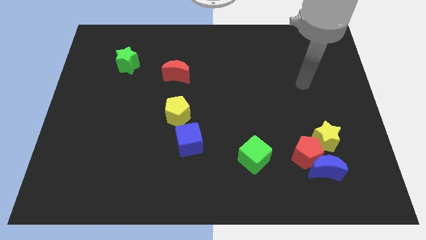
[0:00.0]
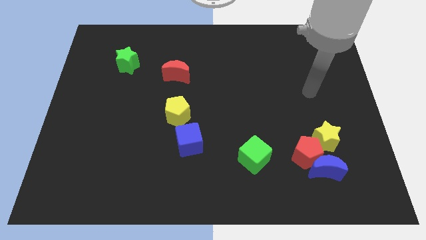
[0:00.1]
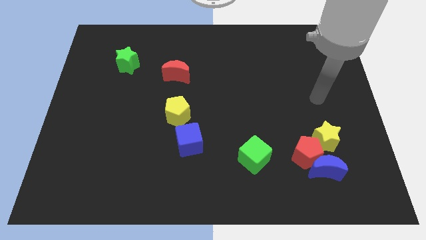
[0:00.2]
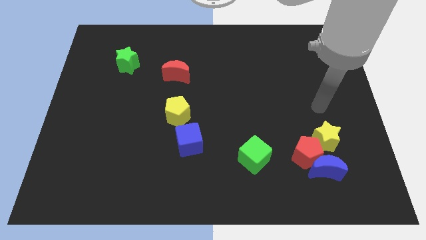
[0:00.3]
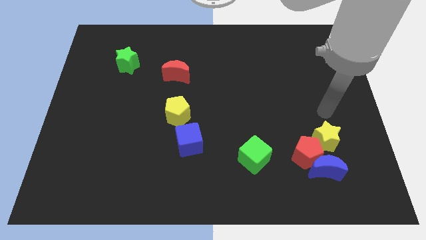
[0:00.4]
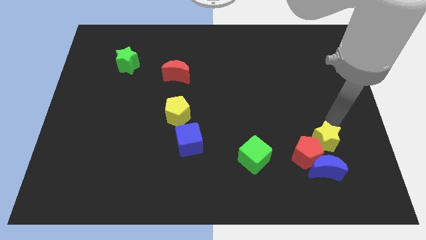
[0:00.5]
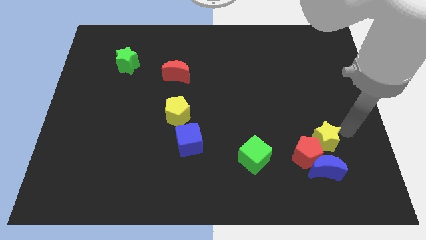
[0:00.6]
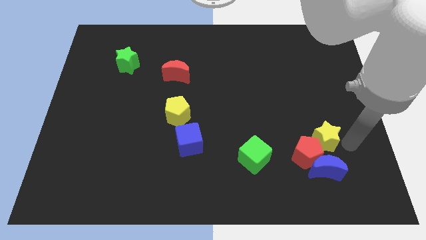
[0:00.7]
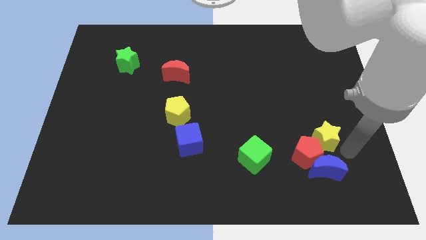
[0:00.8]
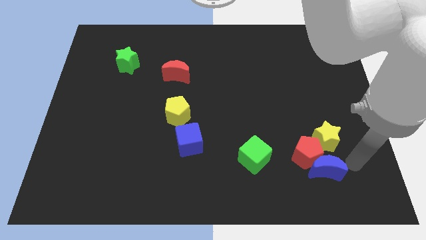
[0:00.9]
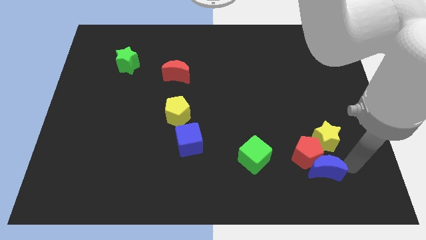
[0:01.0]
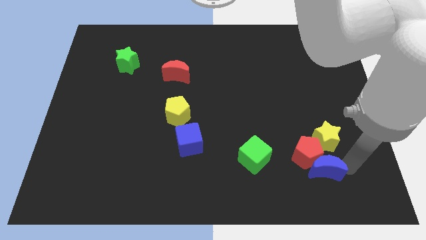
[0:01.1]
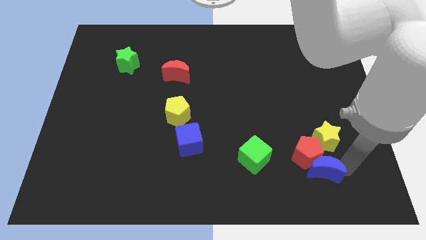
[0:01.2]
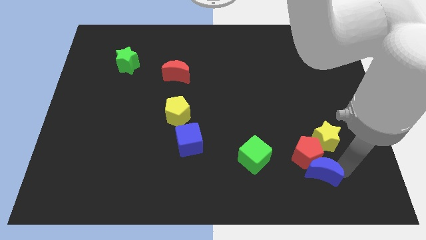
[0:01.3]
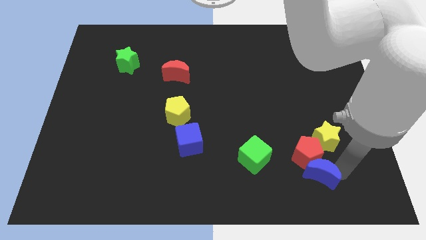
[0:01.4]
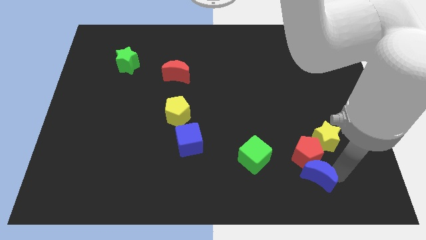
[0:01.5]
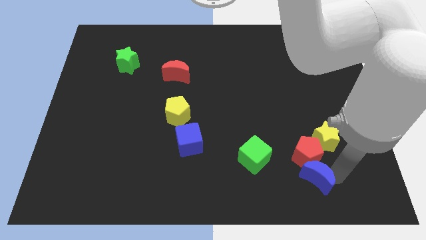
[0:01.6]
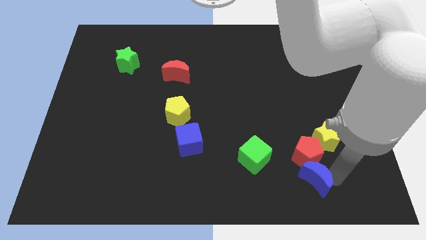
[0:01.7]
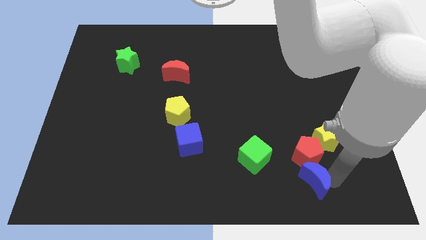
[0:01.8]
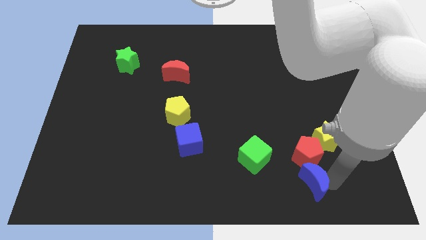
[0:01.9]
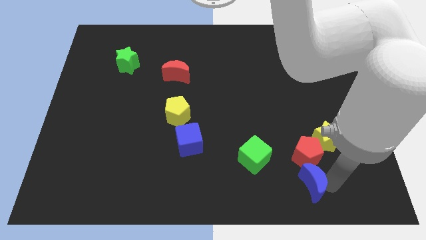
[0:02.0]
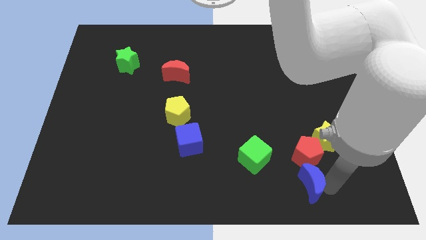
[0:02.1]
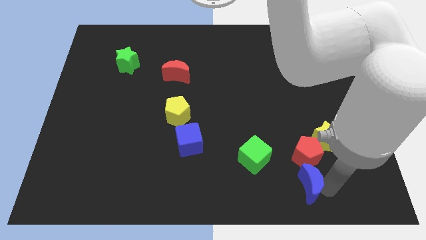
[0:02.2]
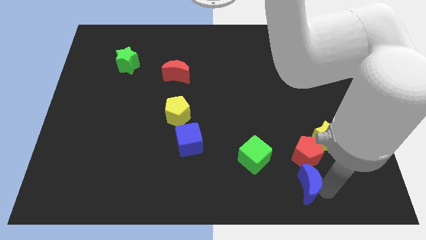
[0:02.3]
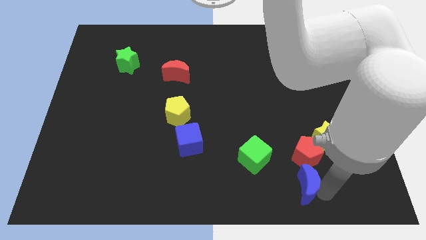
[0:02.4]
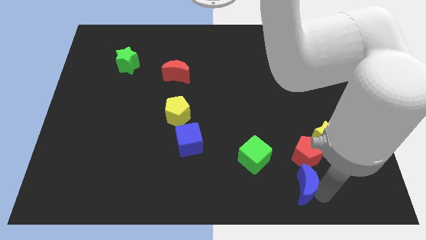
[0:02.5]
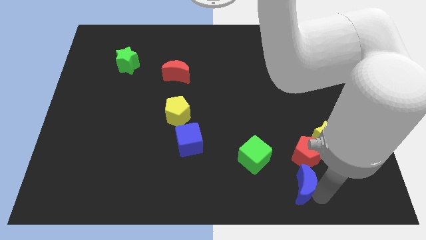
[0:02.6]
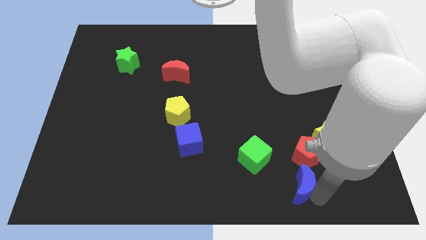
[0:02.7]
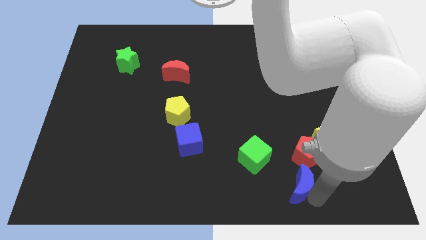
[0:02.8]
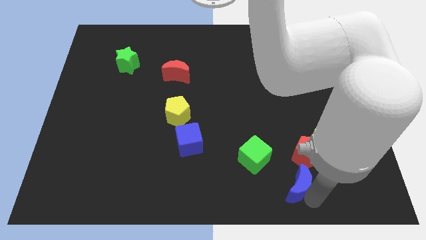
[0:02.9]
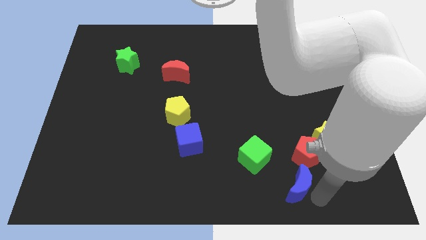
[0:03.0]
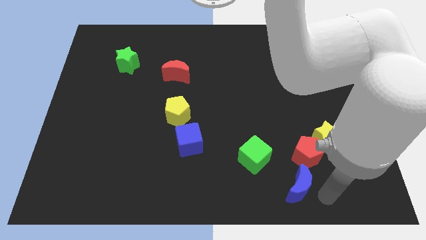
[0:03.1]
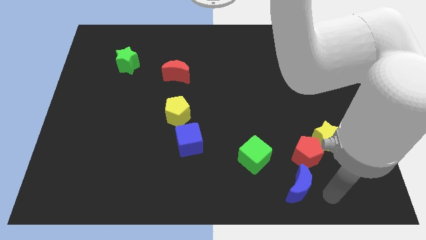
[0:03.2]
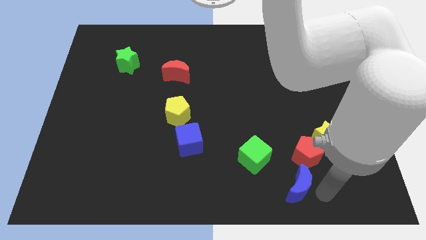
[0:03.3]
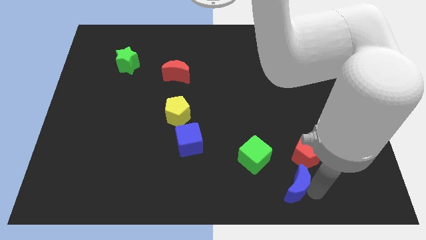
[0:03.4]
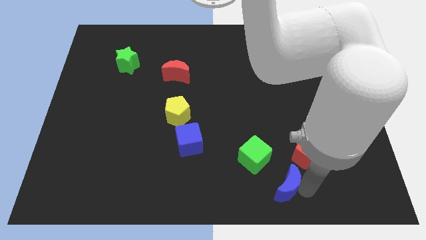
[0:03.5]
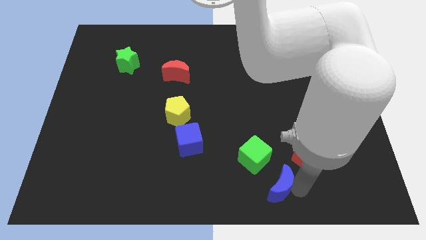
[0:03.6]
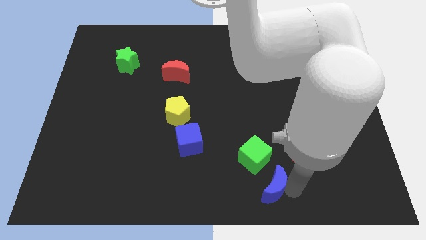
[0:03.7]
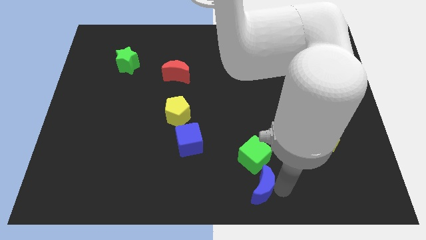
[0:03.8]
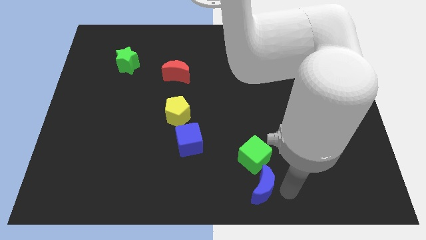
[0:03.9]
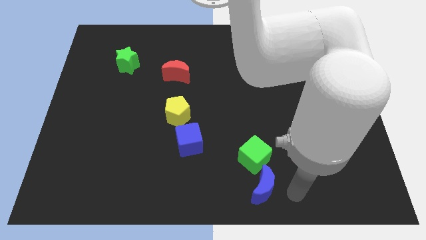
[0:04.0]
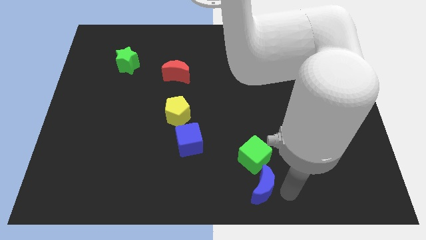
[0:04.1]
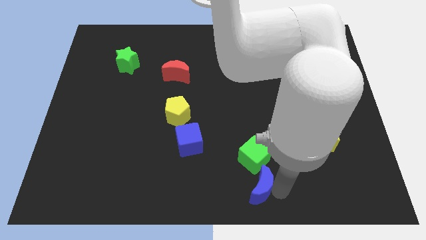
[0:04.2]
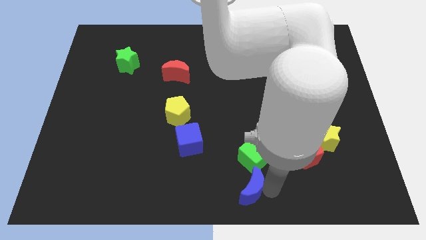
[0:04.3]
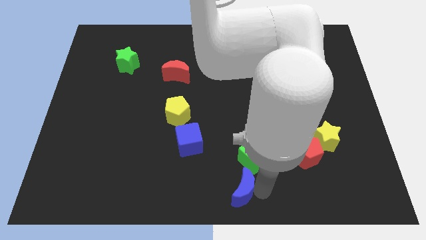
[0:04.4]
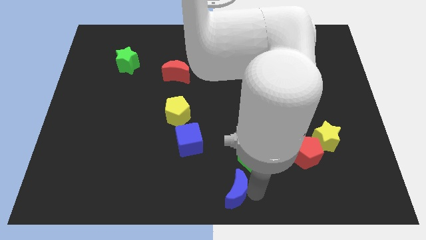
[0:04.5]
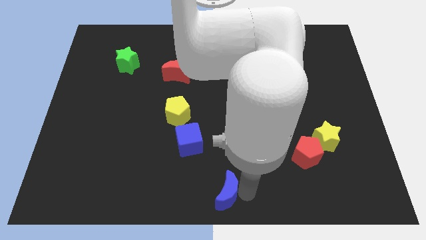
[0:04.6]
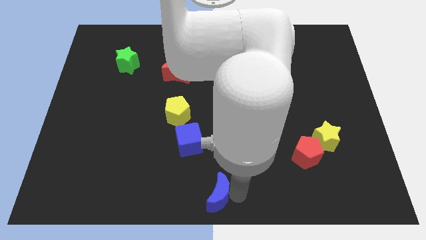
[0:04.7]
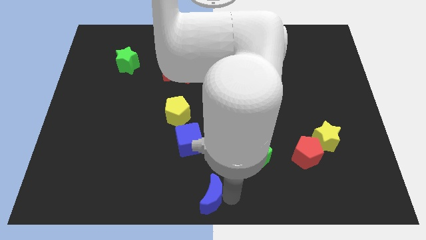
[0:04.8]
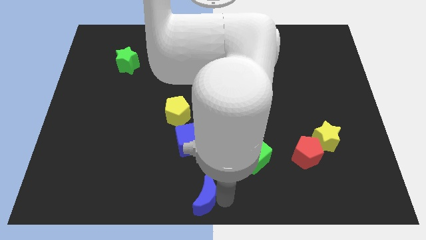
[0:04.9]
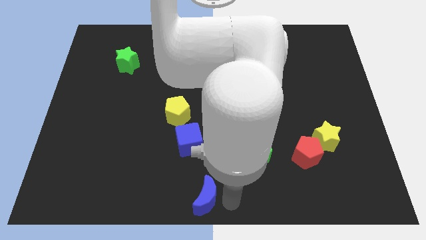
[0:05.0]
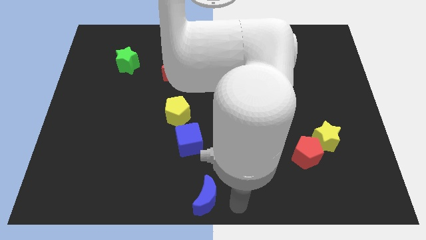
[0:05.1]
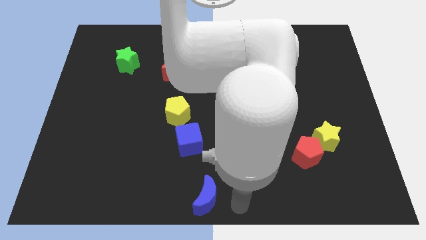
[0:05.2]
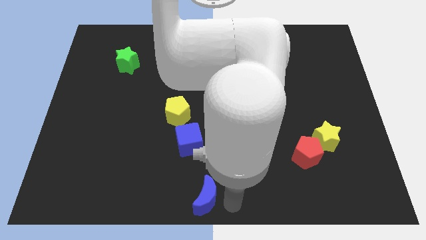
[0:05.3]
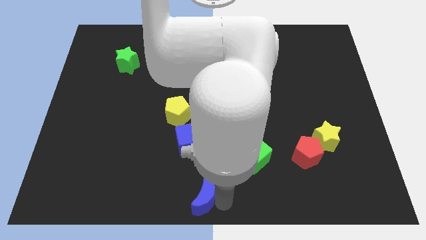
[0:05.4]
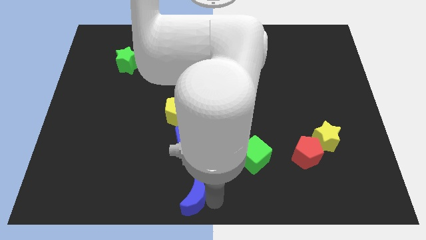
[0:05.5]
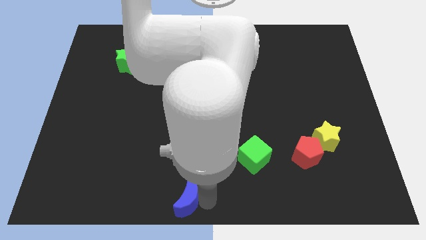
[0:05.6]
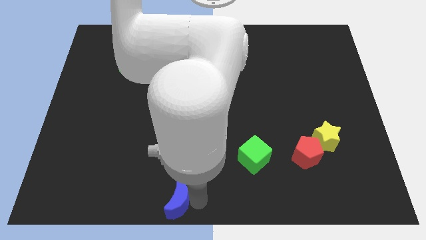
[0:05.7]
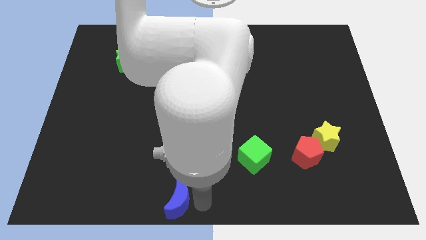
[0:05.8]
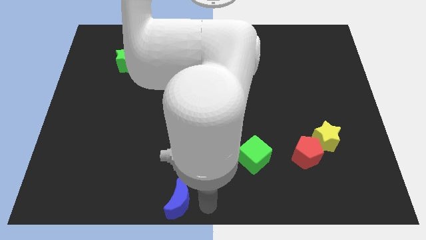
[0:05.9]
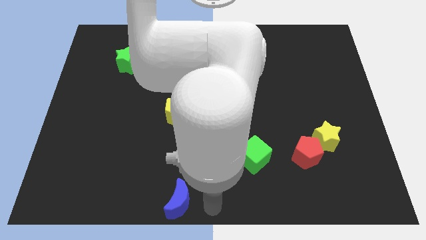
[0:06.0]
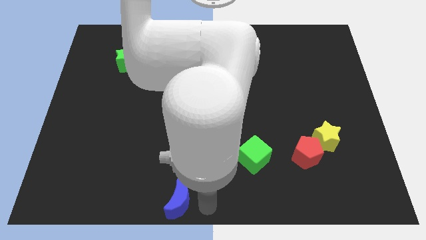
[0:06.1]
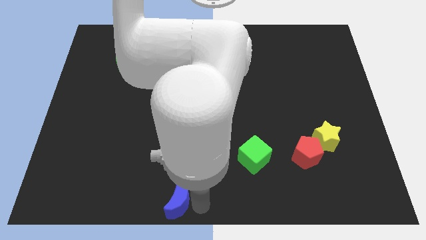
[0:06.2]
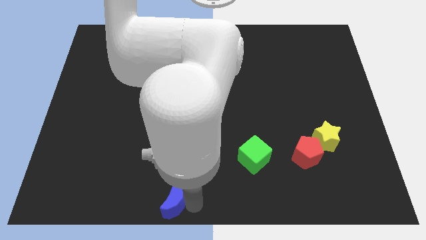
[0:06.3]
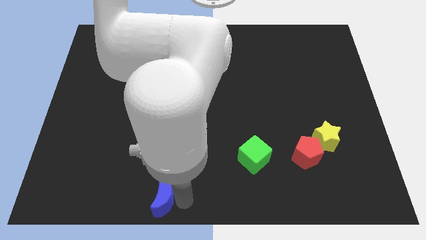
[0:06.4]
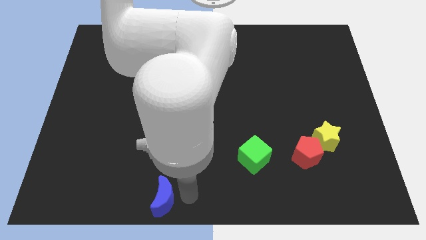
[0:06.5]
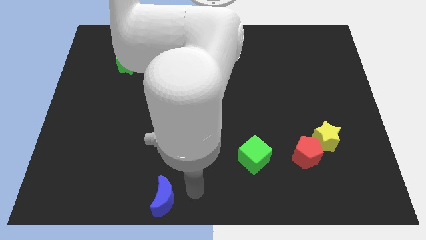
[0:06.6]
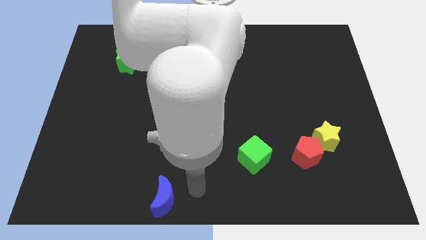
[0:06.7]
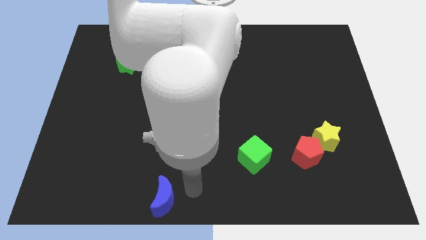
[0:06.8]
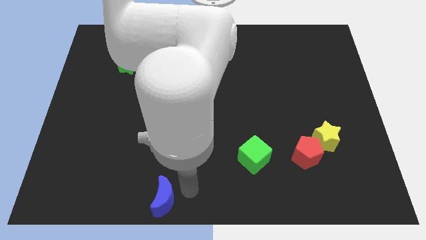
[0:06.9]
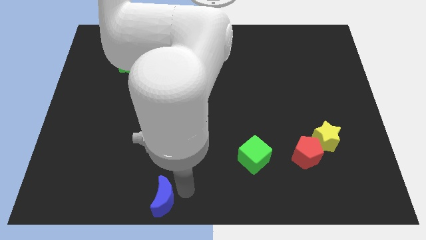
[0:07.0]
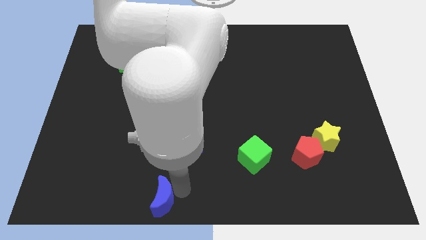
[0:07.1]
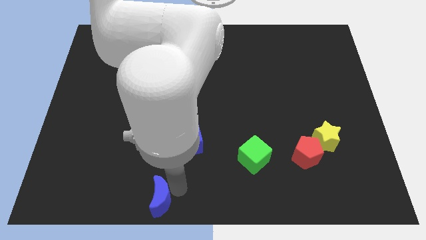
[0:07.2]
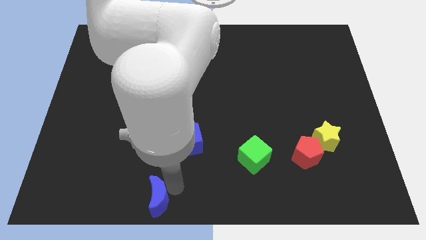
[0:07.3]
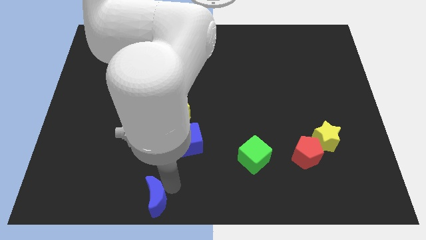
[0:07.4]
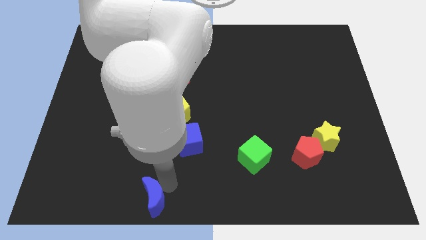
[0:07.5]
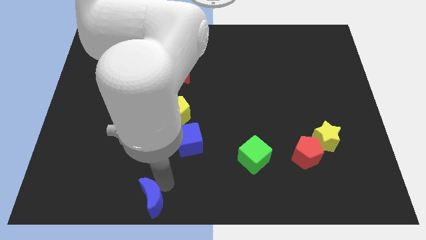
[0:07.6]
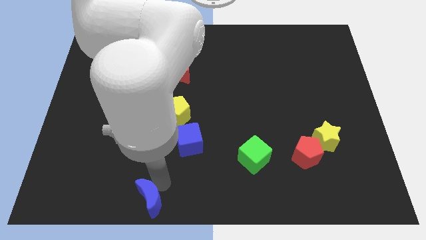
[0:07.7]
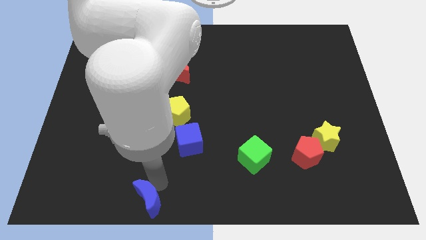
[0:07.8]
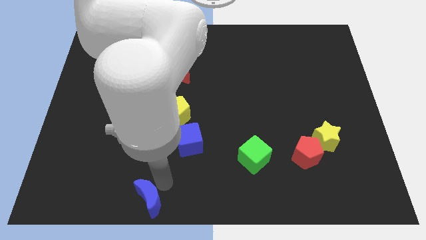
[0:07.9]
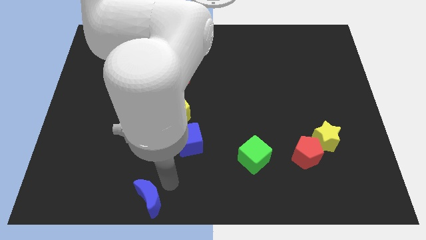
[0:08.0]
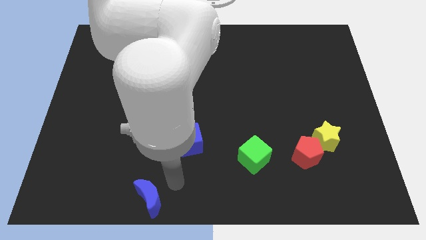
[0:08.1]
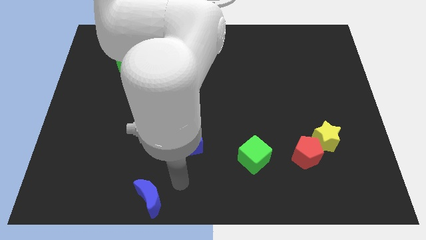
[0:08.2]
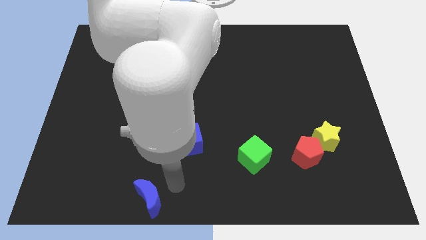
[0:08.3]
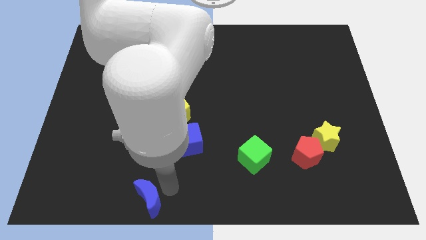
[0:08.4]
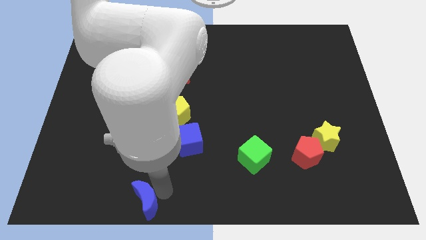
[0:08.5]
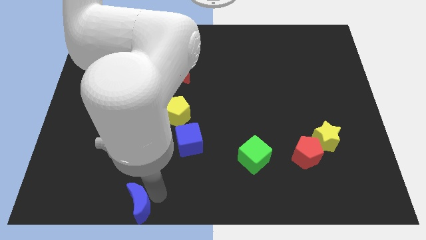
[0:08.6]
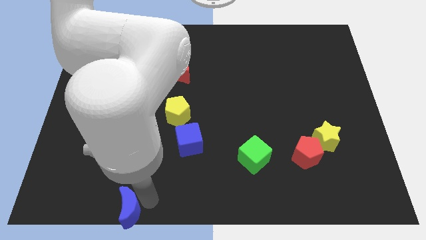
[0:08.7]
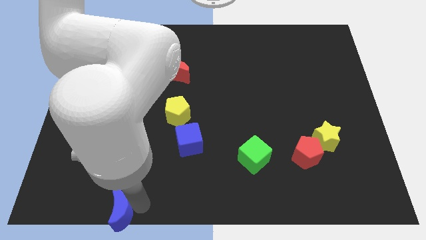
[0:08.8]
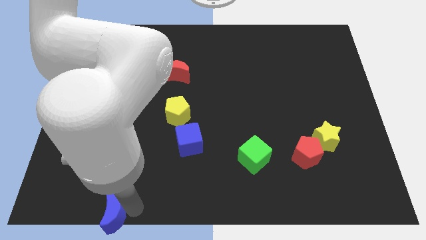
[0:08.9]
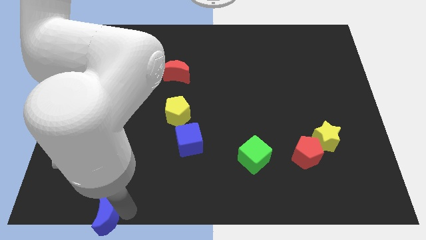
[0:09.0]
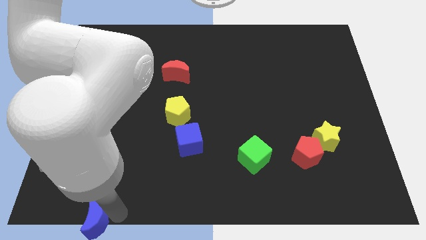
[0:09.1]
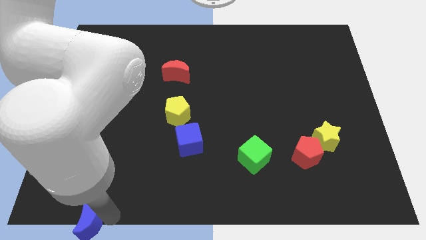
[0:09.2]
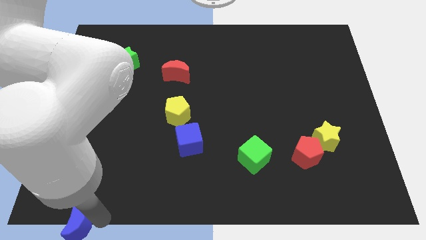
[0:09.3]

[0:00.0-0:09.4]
put the blue moon to the bottom left
